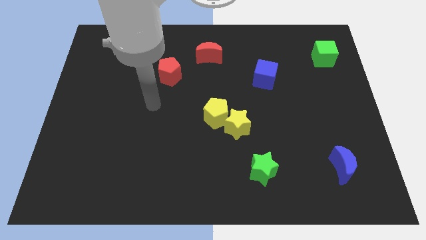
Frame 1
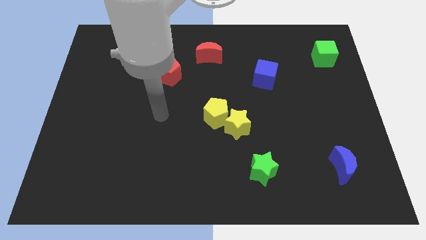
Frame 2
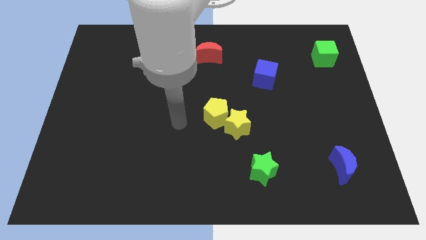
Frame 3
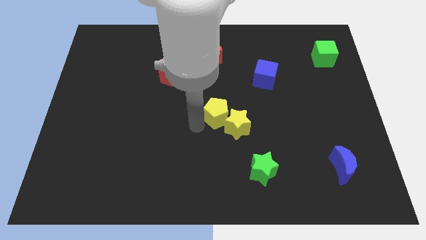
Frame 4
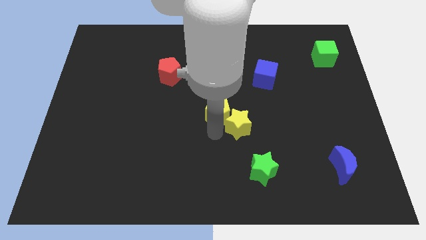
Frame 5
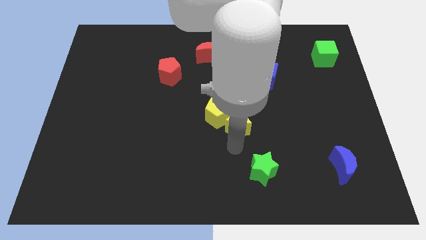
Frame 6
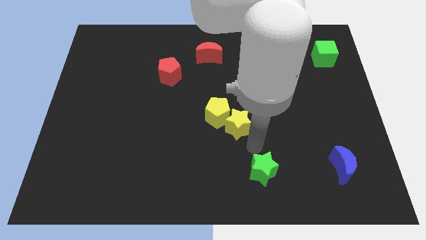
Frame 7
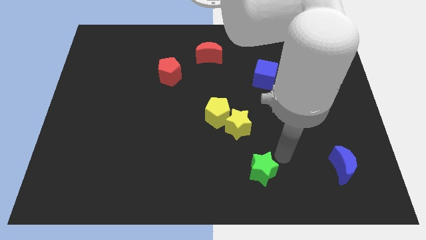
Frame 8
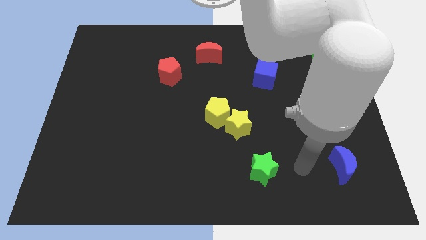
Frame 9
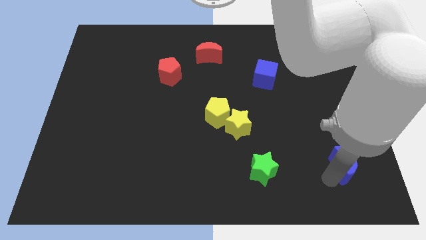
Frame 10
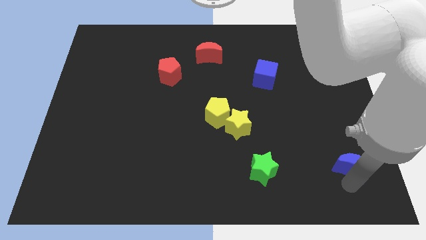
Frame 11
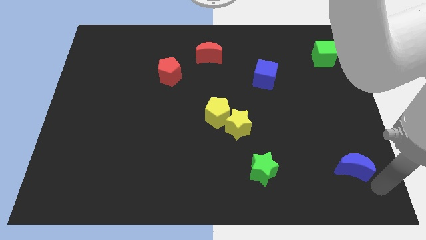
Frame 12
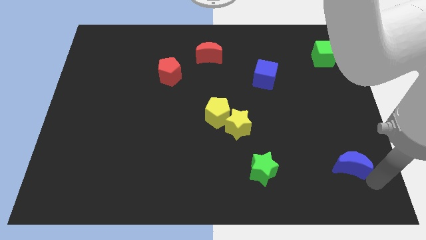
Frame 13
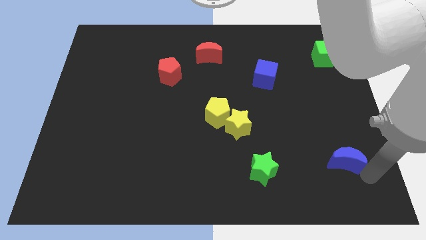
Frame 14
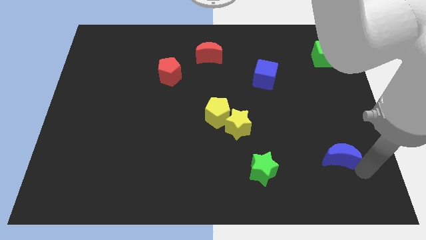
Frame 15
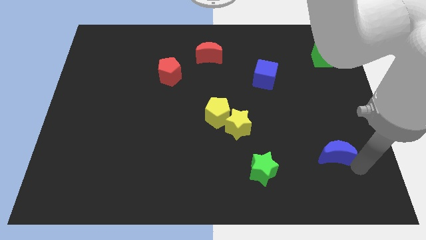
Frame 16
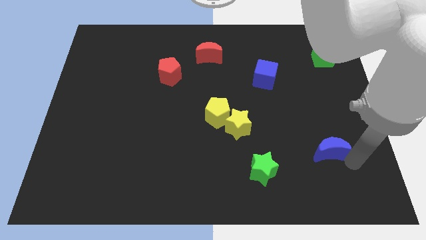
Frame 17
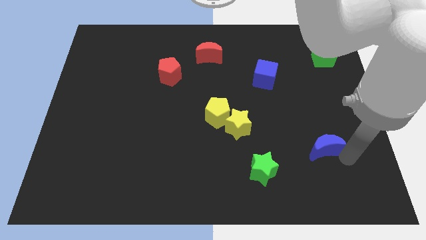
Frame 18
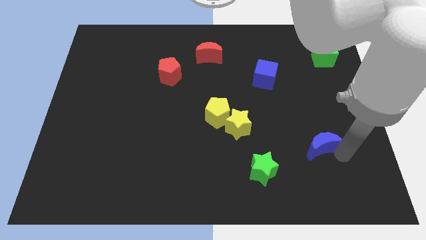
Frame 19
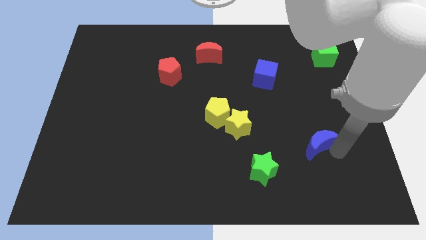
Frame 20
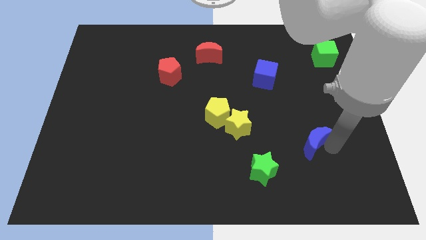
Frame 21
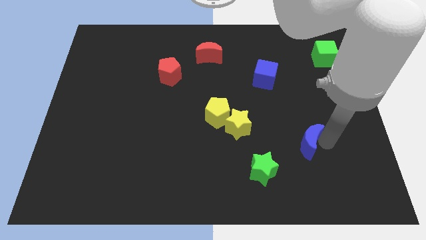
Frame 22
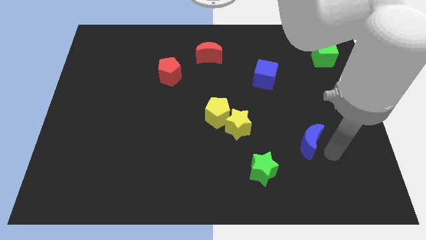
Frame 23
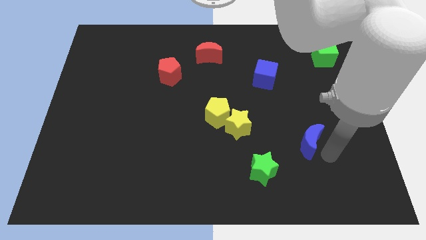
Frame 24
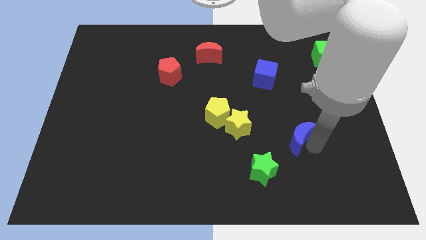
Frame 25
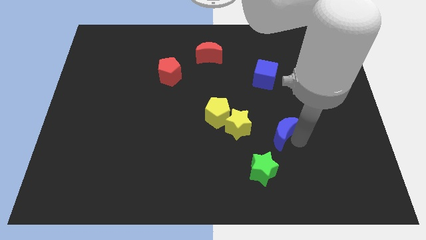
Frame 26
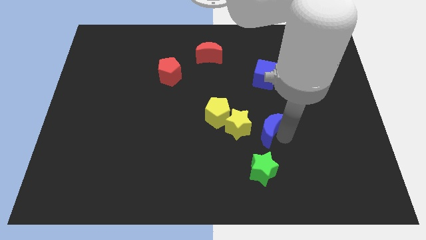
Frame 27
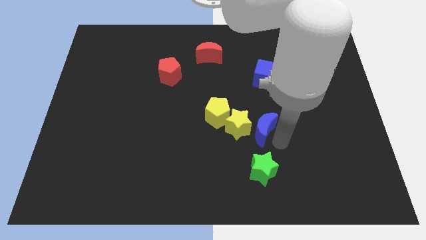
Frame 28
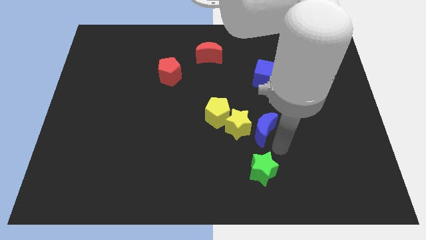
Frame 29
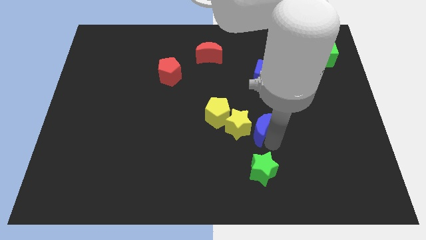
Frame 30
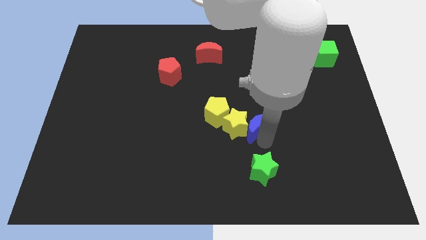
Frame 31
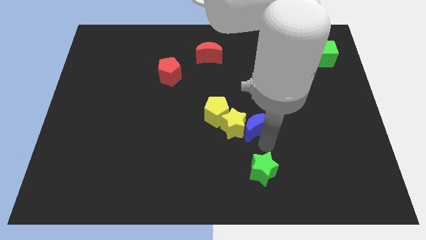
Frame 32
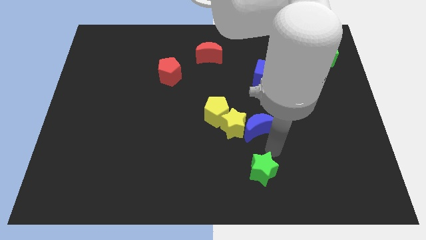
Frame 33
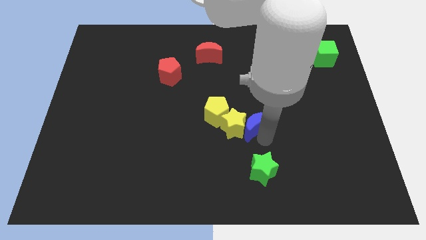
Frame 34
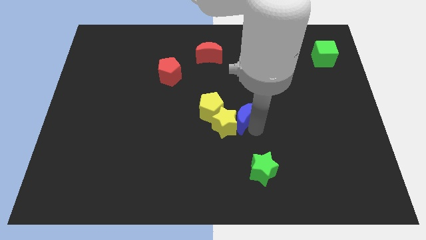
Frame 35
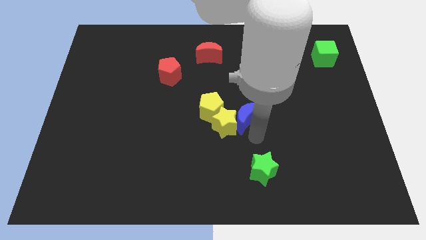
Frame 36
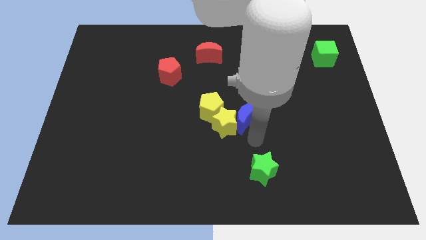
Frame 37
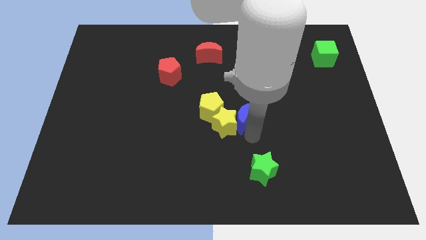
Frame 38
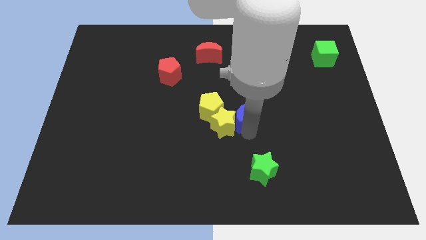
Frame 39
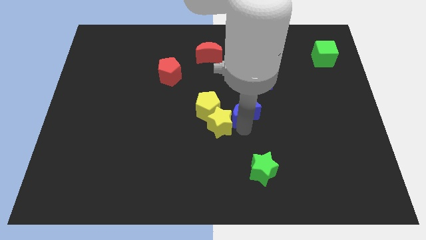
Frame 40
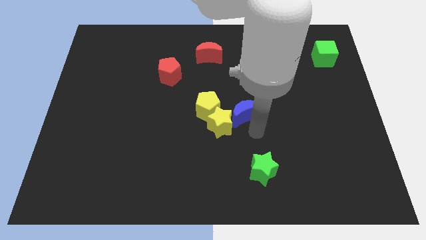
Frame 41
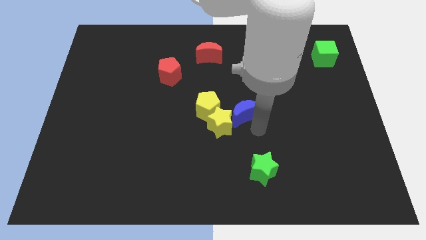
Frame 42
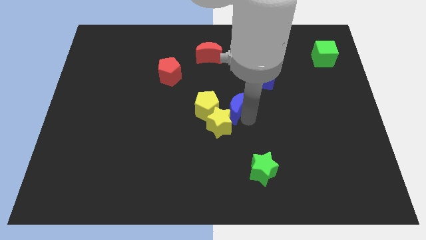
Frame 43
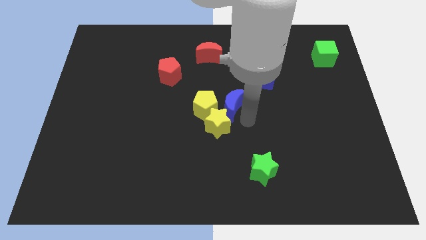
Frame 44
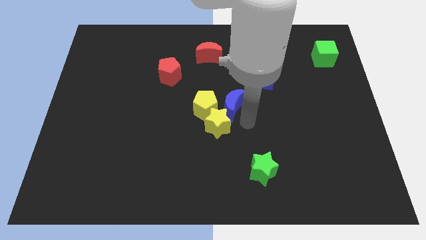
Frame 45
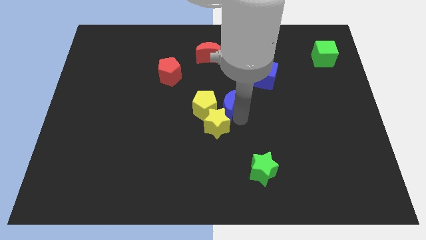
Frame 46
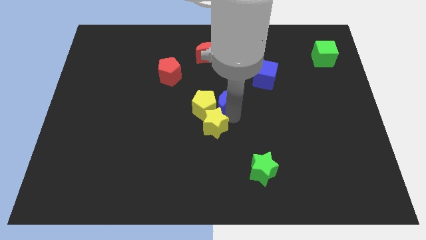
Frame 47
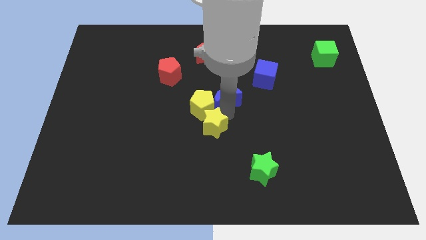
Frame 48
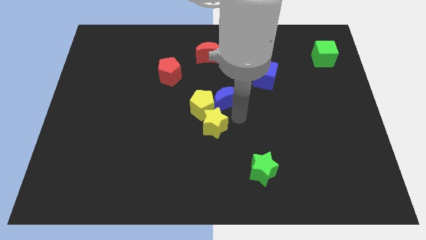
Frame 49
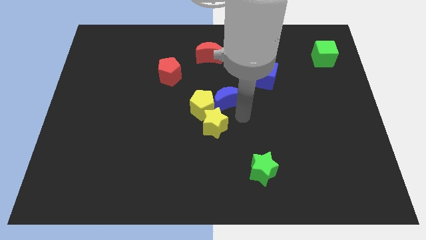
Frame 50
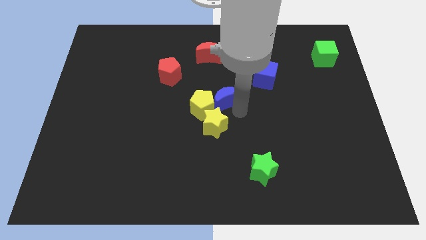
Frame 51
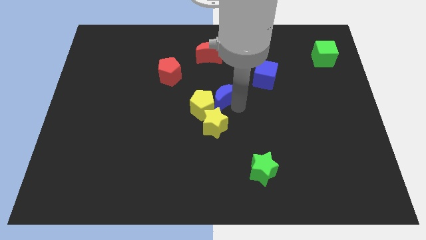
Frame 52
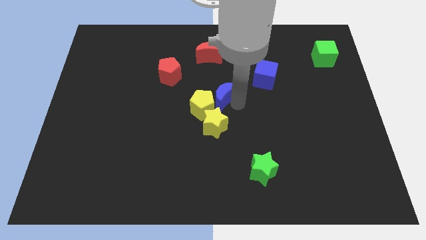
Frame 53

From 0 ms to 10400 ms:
move the blue moon below the red moon

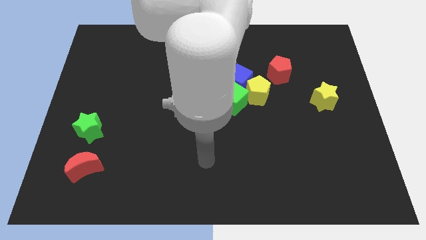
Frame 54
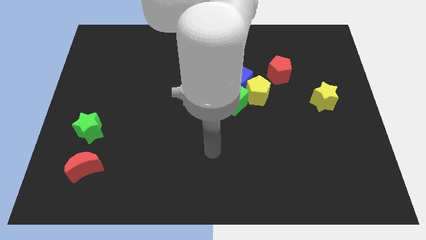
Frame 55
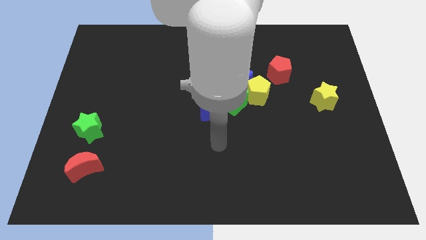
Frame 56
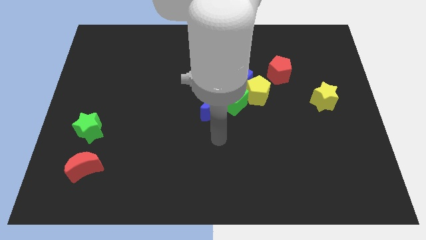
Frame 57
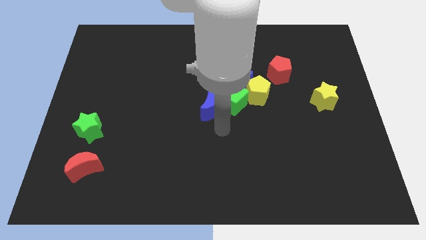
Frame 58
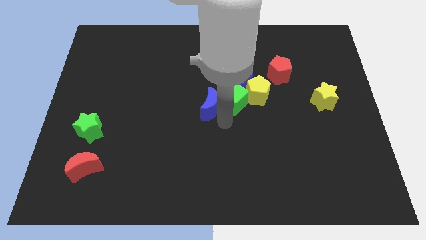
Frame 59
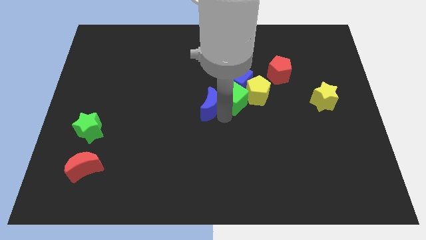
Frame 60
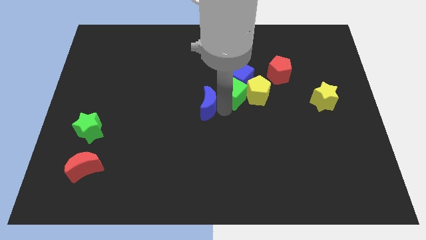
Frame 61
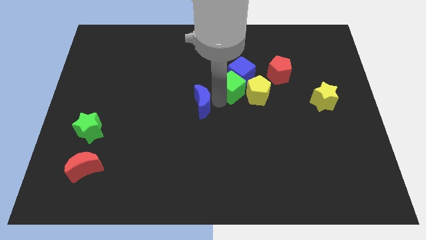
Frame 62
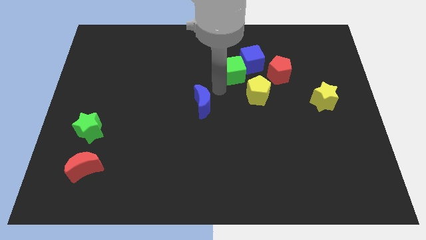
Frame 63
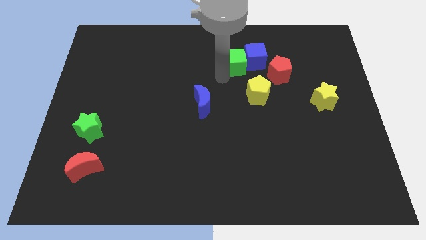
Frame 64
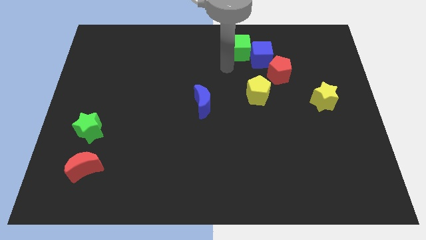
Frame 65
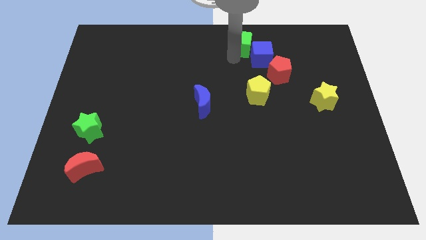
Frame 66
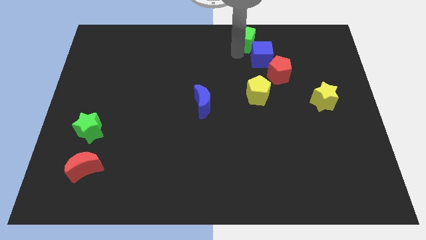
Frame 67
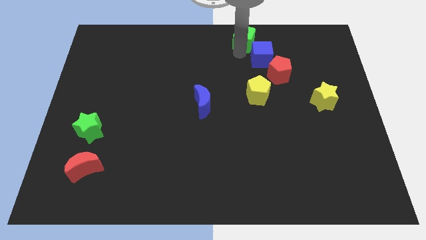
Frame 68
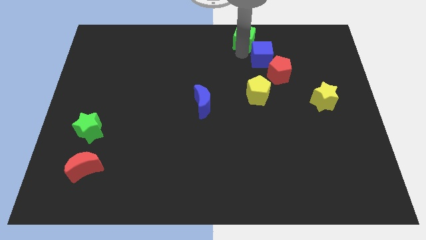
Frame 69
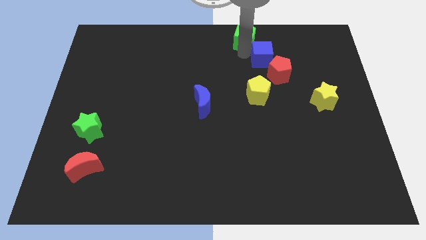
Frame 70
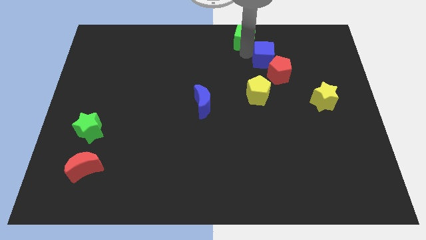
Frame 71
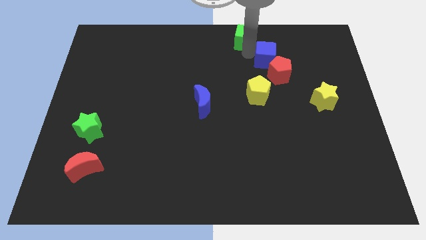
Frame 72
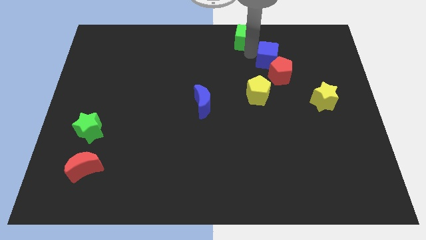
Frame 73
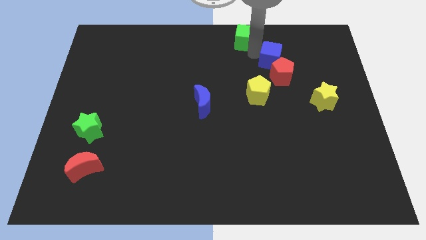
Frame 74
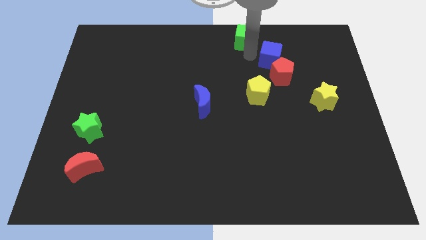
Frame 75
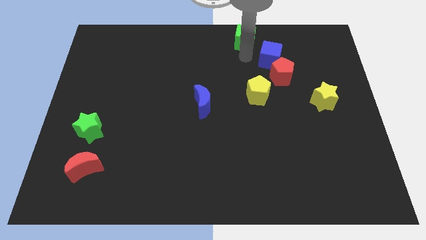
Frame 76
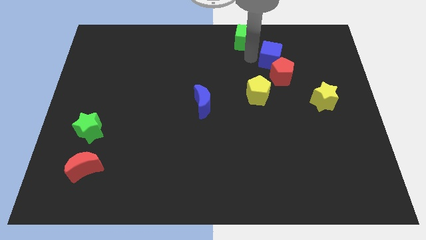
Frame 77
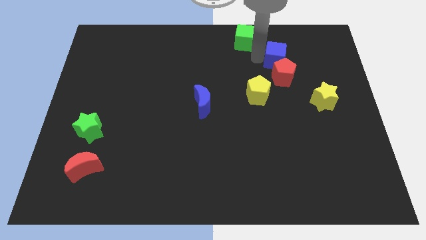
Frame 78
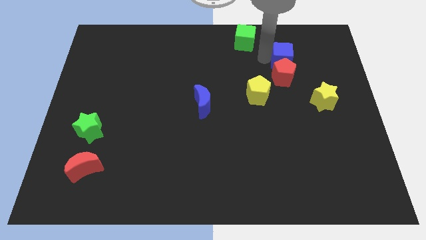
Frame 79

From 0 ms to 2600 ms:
put the blue cube to the top right side of the red pentagon

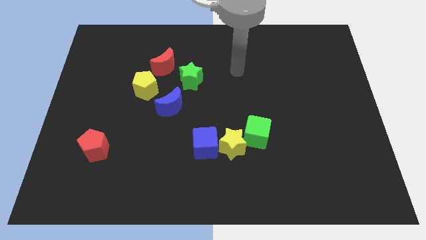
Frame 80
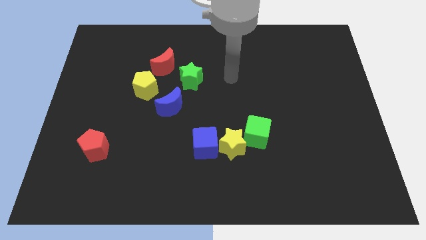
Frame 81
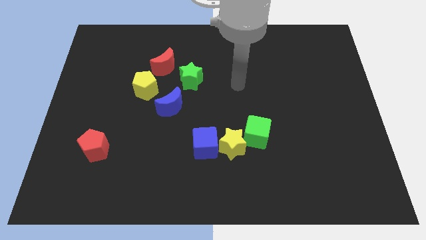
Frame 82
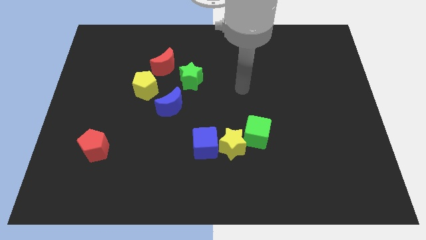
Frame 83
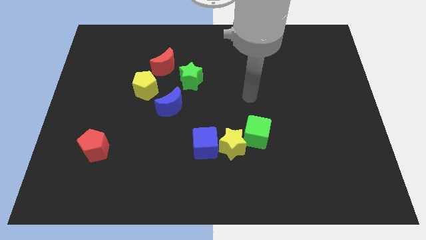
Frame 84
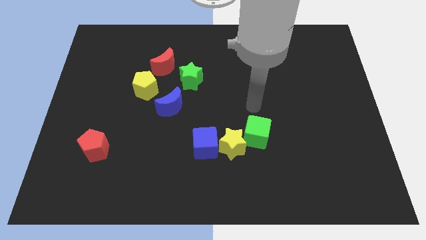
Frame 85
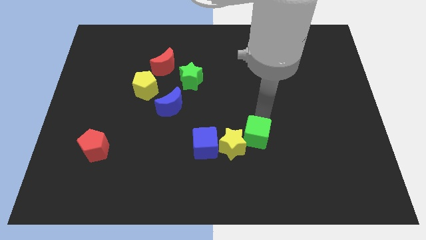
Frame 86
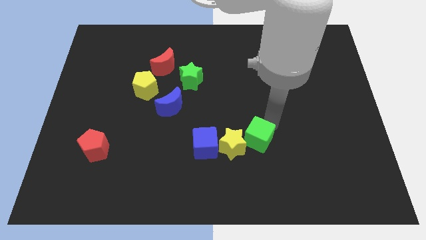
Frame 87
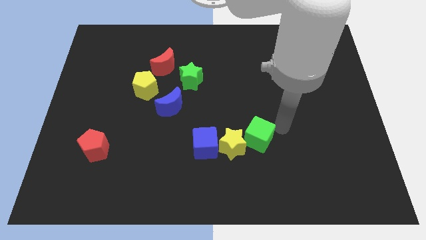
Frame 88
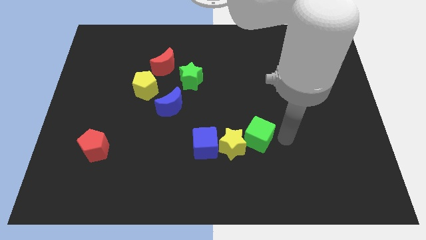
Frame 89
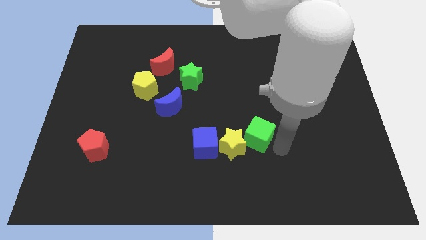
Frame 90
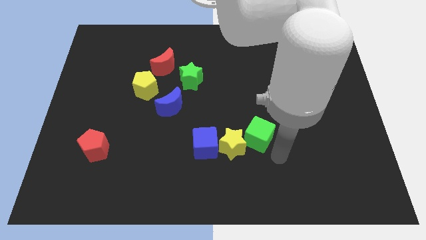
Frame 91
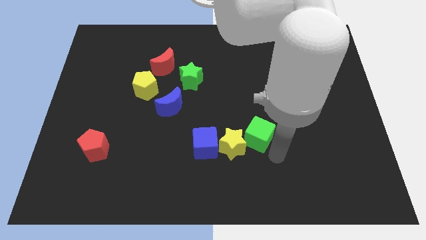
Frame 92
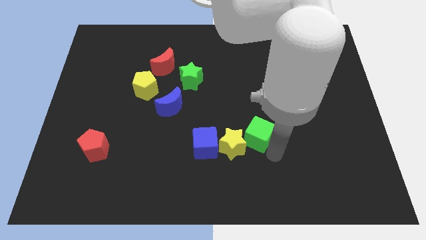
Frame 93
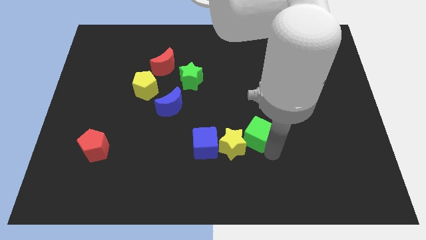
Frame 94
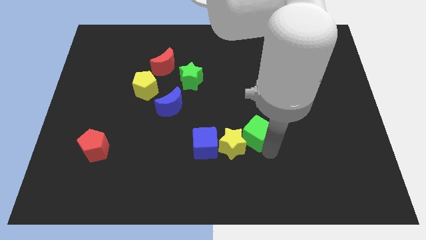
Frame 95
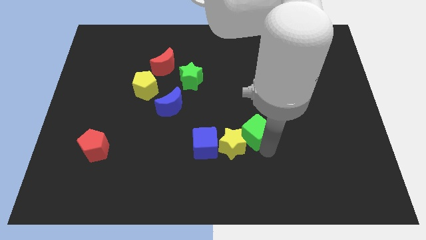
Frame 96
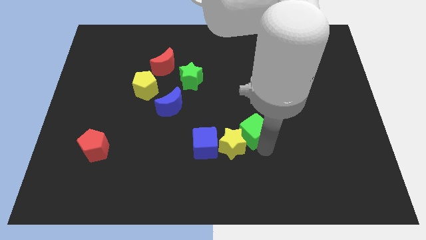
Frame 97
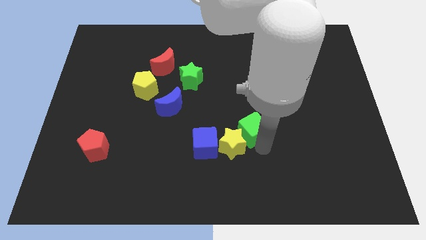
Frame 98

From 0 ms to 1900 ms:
slide the green cube above the yellow star
